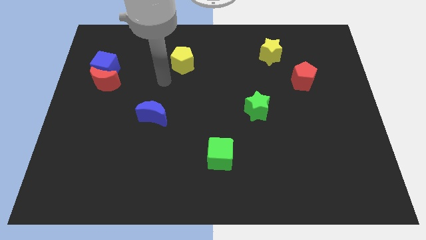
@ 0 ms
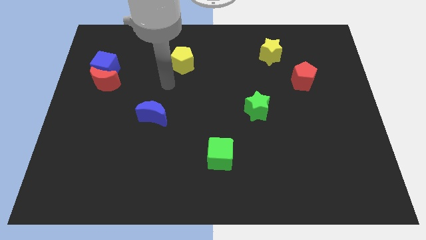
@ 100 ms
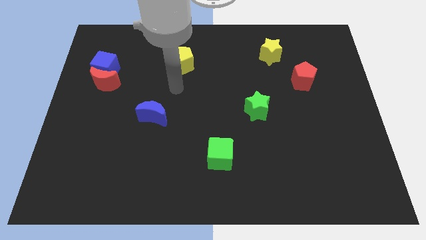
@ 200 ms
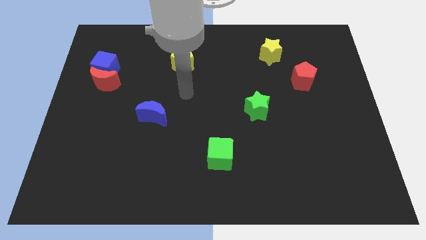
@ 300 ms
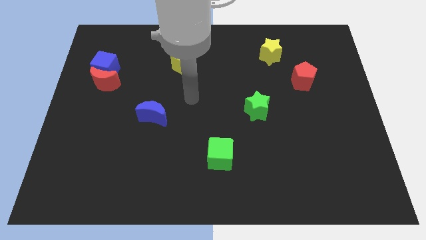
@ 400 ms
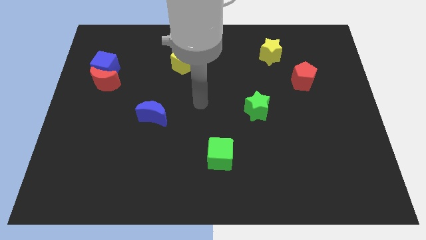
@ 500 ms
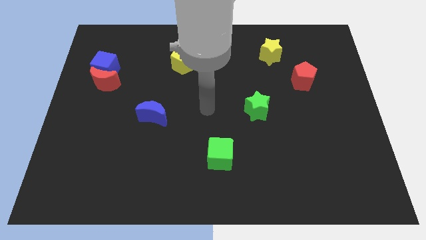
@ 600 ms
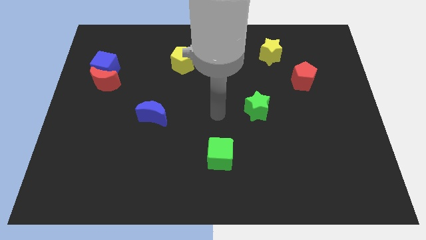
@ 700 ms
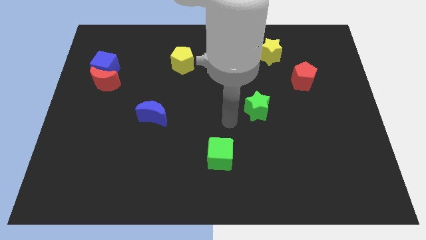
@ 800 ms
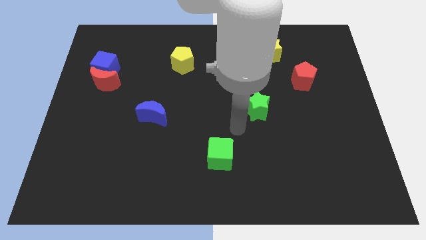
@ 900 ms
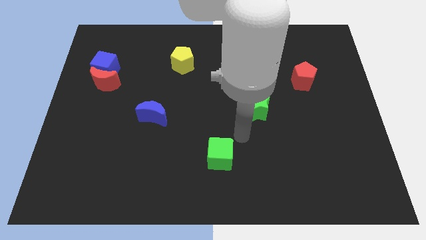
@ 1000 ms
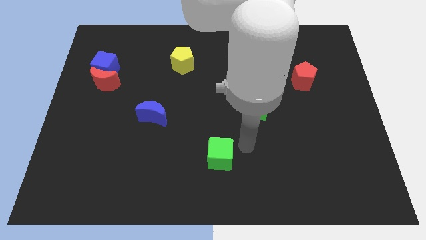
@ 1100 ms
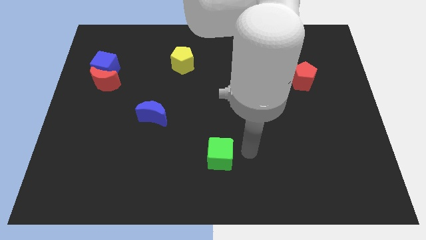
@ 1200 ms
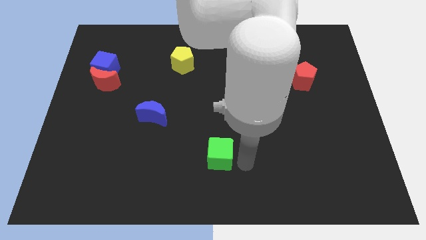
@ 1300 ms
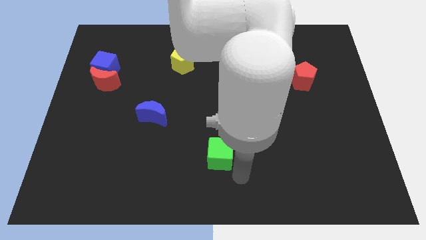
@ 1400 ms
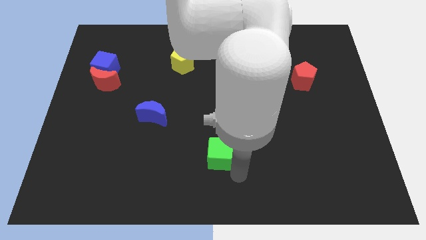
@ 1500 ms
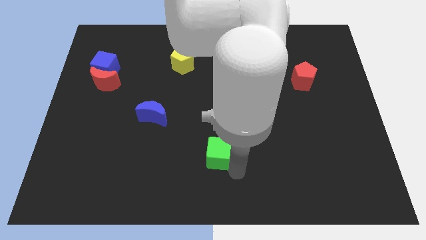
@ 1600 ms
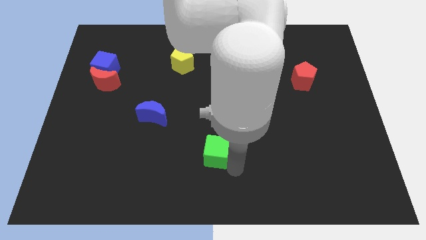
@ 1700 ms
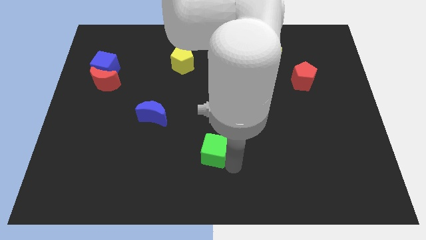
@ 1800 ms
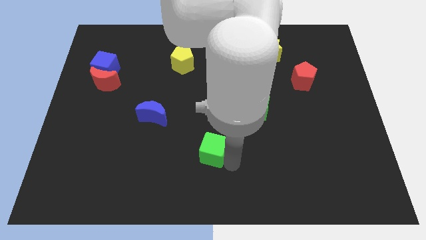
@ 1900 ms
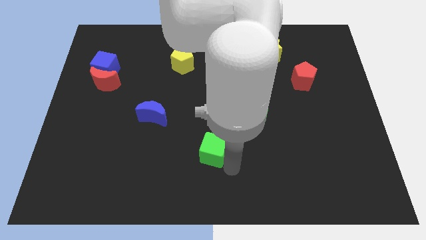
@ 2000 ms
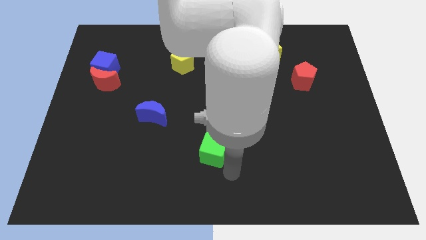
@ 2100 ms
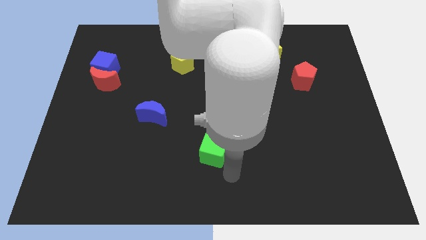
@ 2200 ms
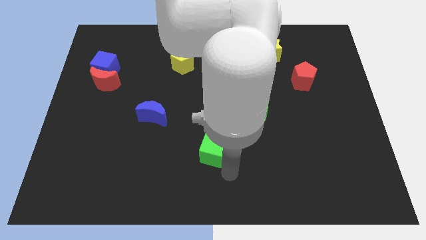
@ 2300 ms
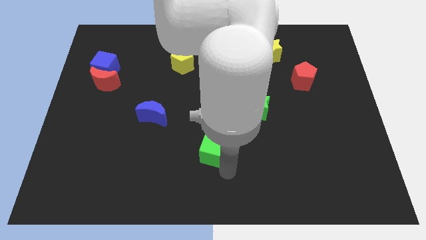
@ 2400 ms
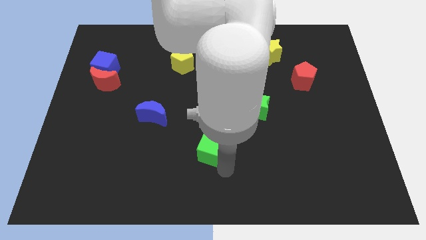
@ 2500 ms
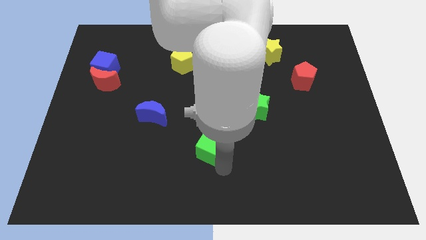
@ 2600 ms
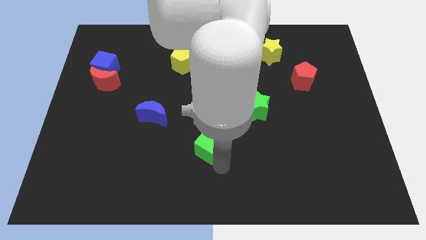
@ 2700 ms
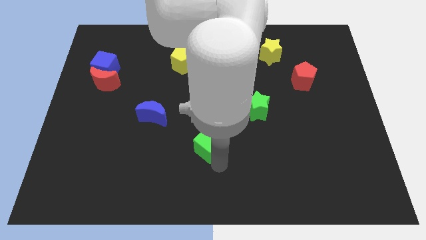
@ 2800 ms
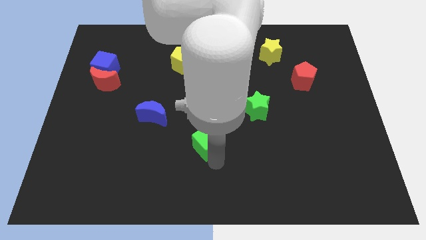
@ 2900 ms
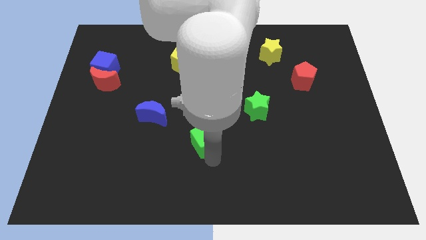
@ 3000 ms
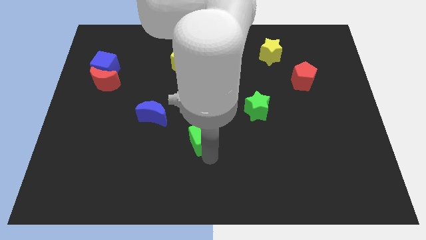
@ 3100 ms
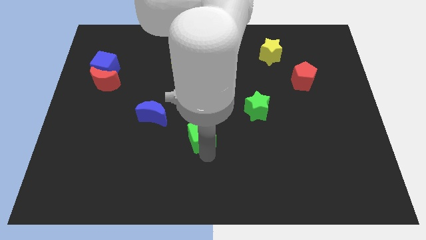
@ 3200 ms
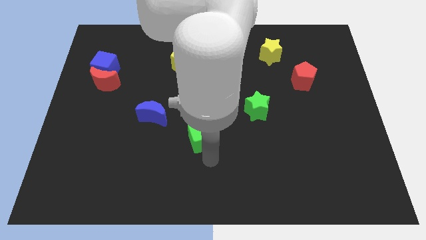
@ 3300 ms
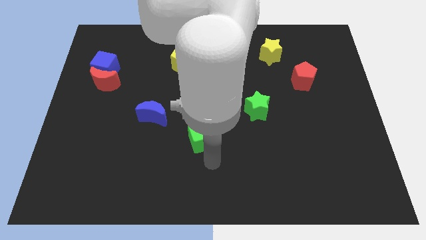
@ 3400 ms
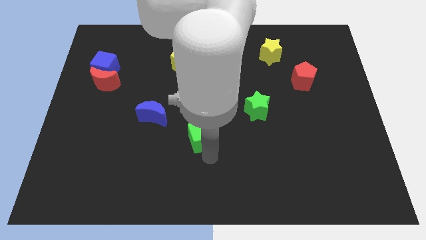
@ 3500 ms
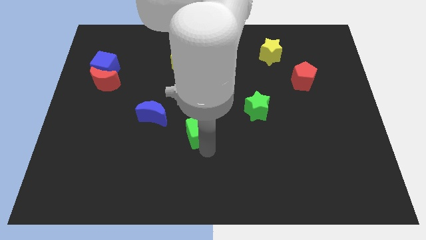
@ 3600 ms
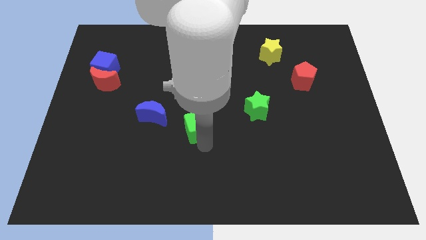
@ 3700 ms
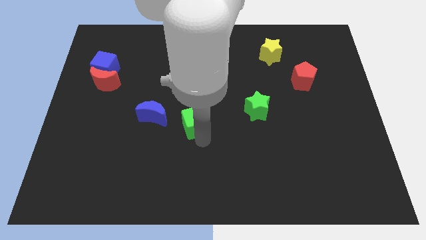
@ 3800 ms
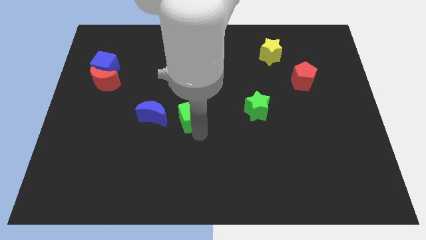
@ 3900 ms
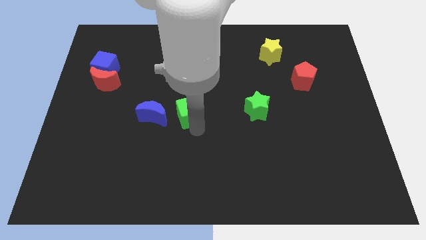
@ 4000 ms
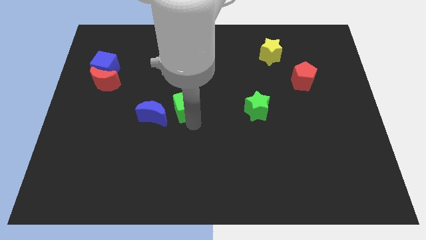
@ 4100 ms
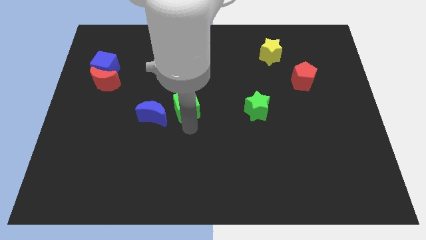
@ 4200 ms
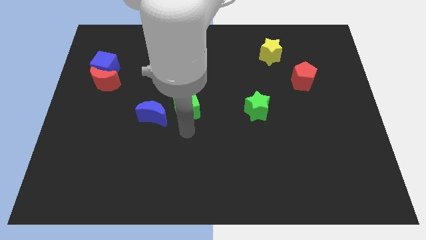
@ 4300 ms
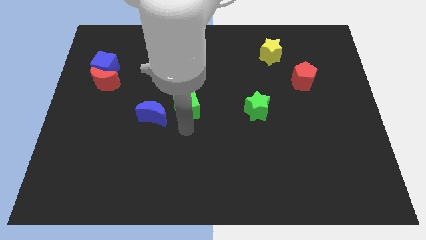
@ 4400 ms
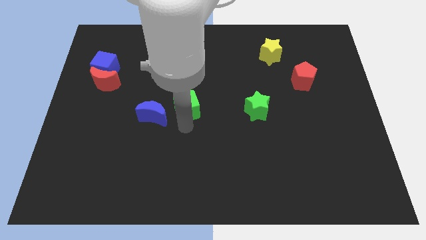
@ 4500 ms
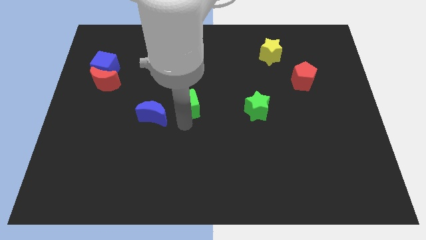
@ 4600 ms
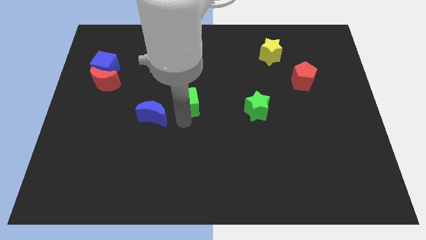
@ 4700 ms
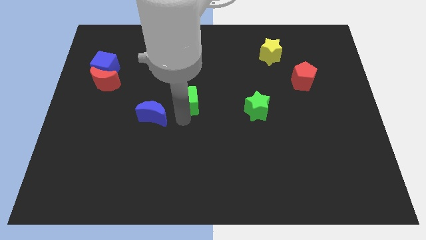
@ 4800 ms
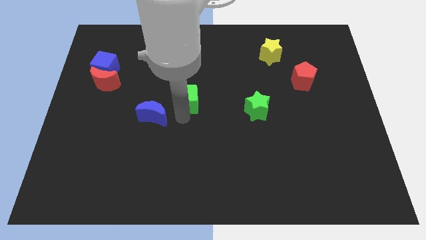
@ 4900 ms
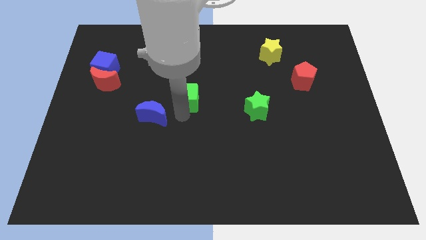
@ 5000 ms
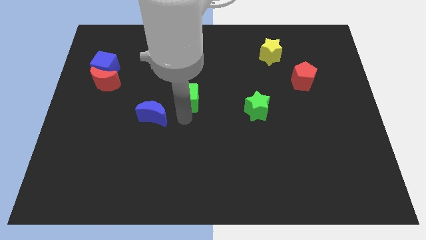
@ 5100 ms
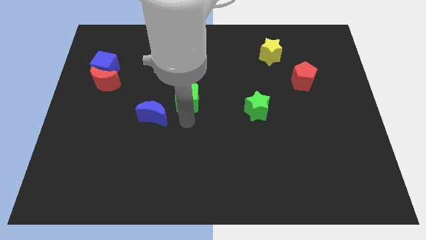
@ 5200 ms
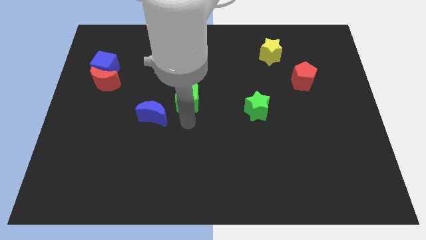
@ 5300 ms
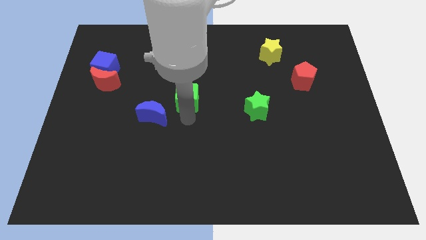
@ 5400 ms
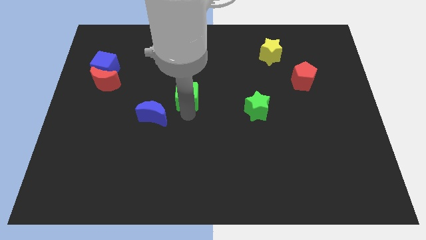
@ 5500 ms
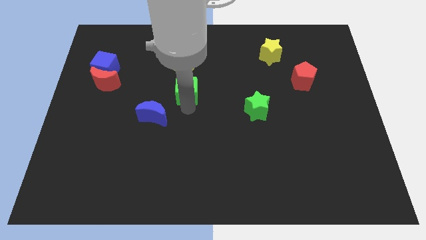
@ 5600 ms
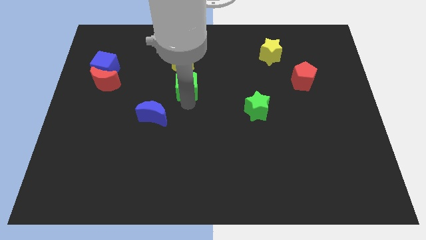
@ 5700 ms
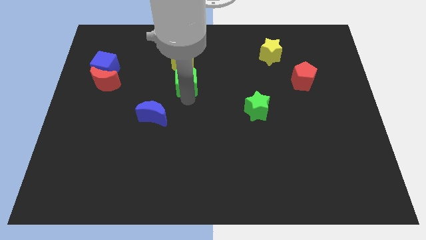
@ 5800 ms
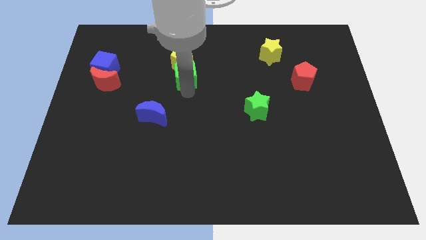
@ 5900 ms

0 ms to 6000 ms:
slide the green cube towards the yellow pentagon

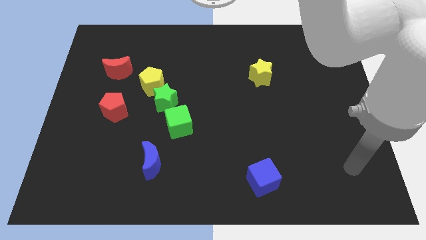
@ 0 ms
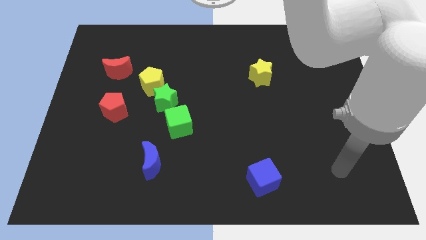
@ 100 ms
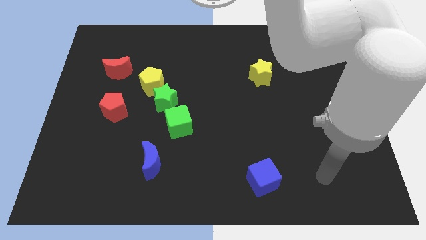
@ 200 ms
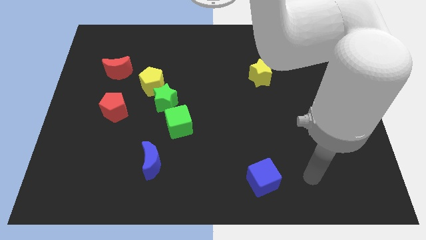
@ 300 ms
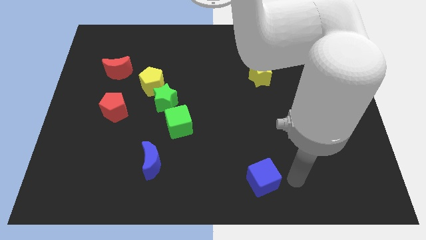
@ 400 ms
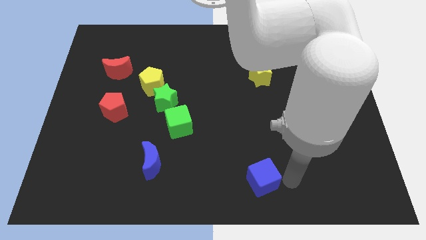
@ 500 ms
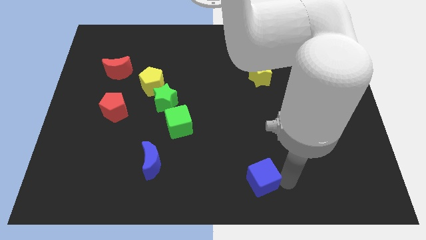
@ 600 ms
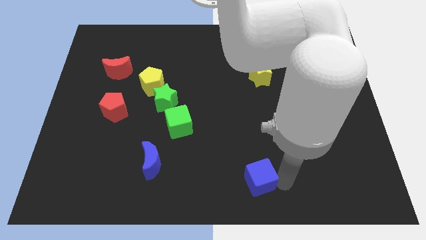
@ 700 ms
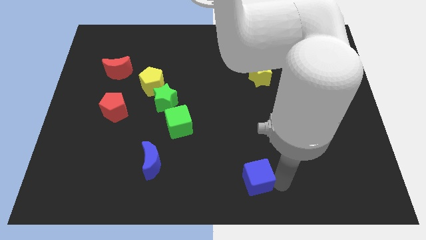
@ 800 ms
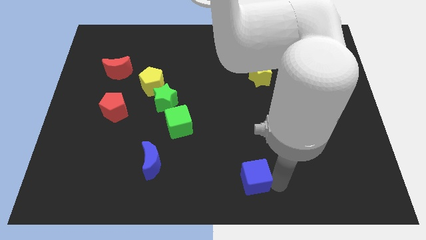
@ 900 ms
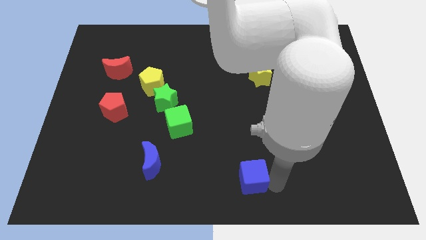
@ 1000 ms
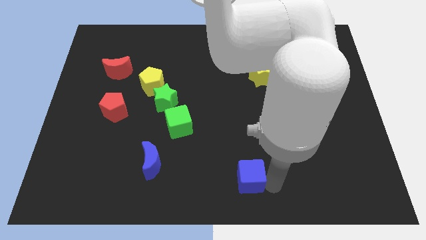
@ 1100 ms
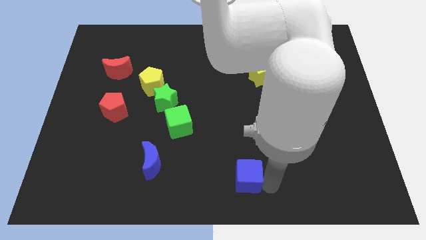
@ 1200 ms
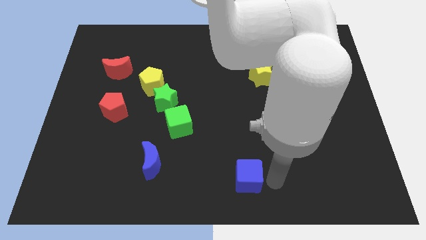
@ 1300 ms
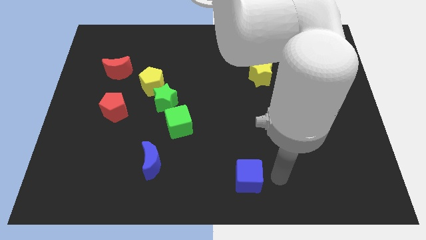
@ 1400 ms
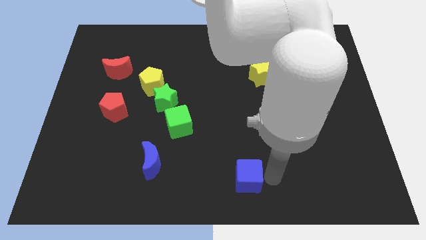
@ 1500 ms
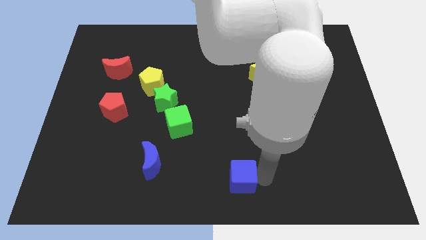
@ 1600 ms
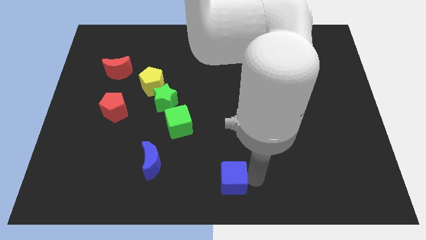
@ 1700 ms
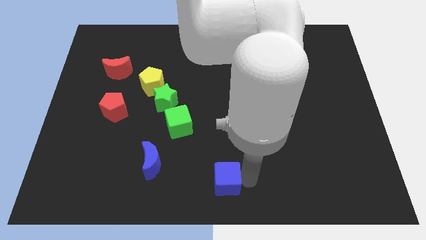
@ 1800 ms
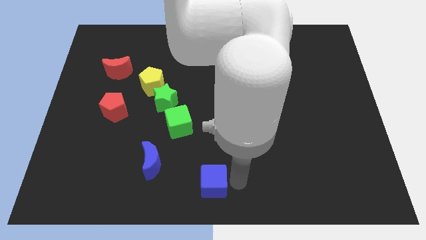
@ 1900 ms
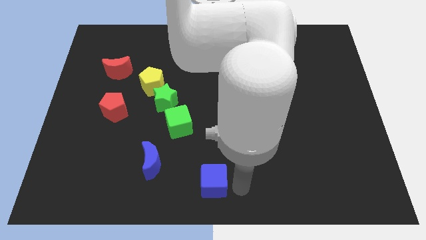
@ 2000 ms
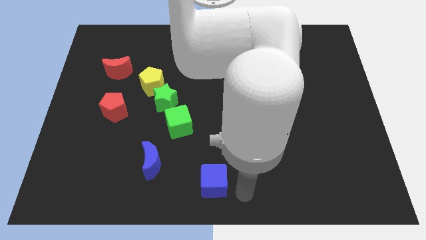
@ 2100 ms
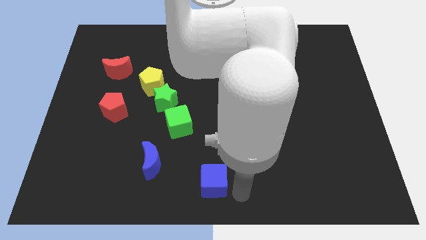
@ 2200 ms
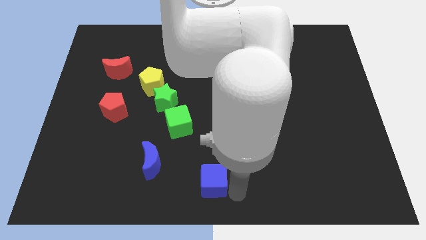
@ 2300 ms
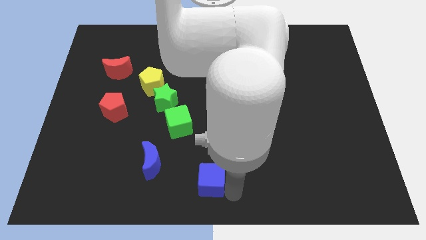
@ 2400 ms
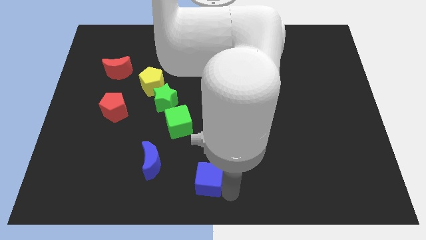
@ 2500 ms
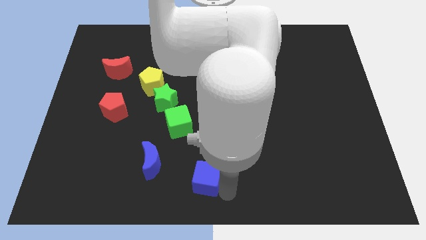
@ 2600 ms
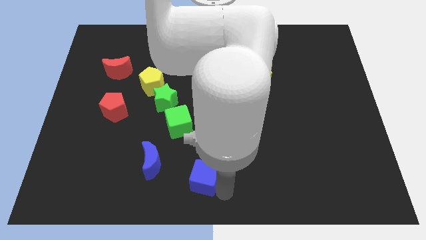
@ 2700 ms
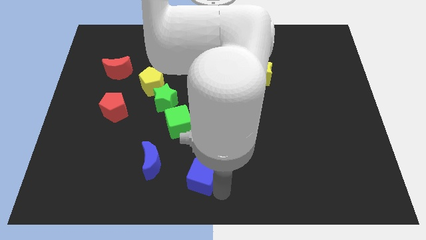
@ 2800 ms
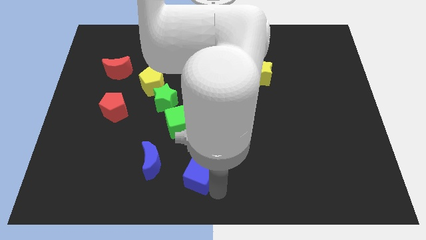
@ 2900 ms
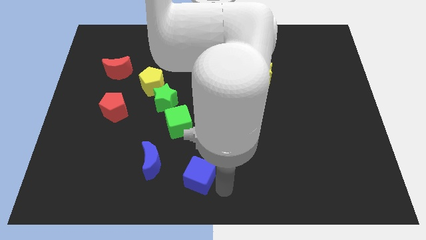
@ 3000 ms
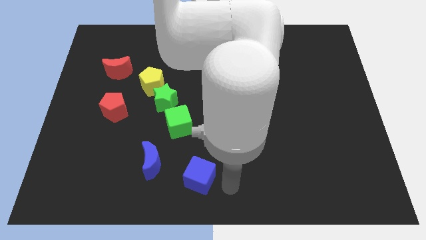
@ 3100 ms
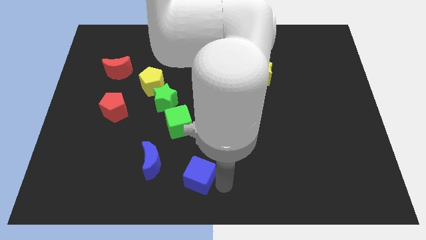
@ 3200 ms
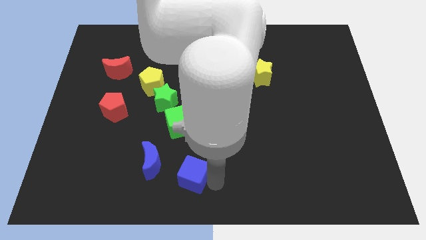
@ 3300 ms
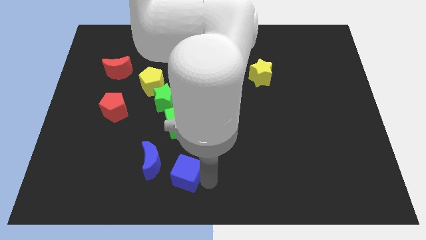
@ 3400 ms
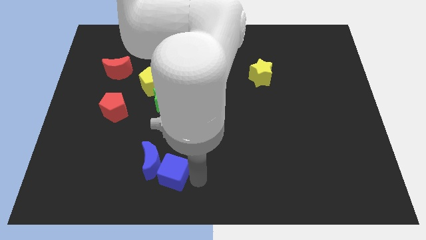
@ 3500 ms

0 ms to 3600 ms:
slide the blue cube to the blue moon
